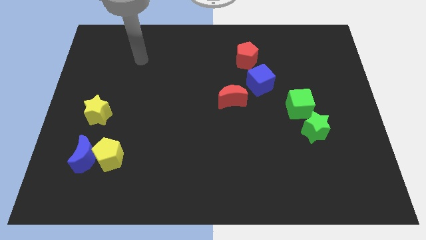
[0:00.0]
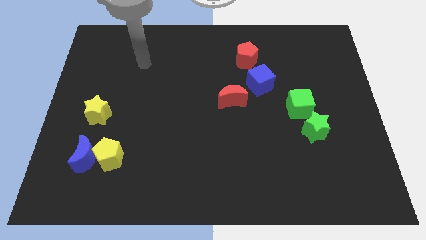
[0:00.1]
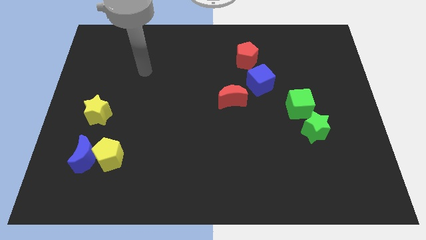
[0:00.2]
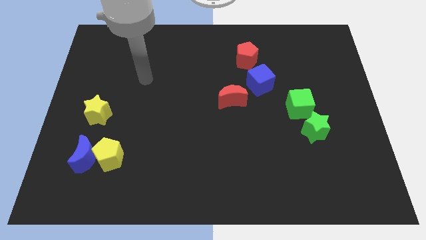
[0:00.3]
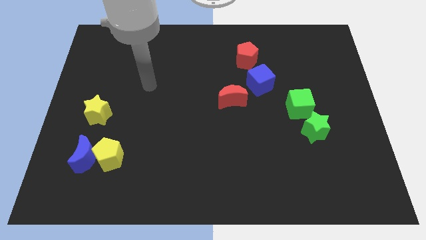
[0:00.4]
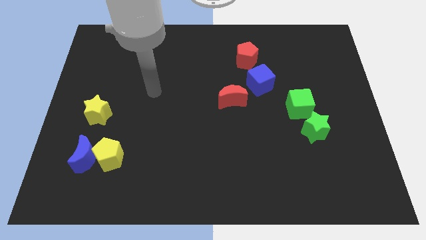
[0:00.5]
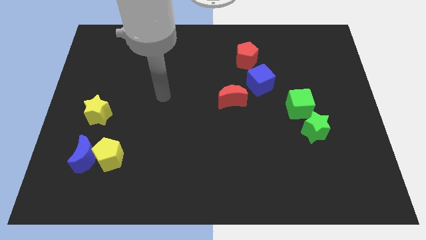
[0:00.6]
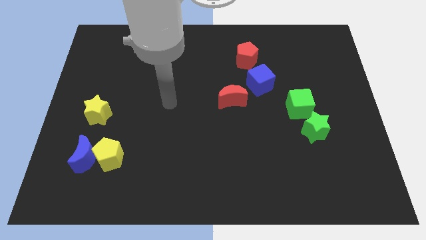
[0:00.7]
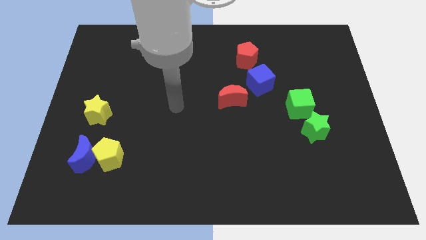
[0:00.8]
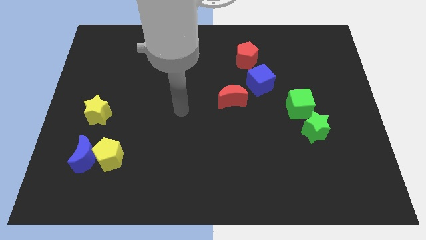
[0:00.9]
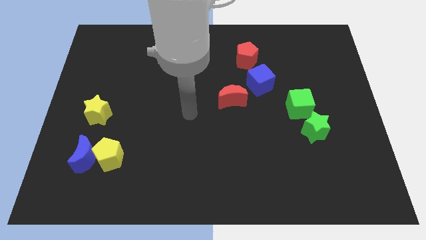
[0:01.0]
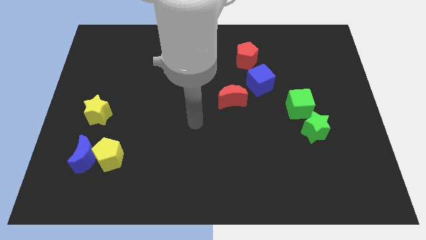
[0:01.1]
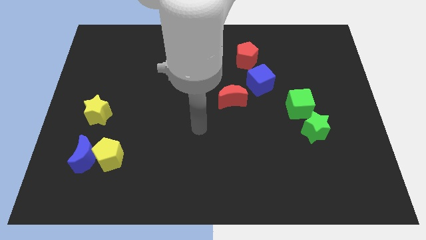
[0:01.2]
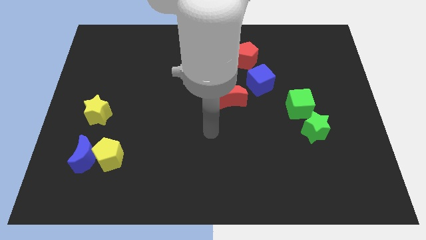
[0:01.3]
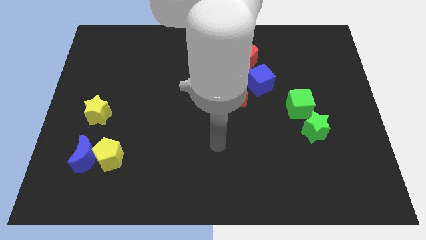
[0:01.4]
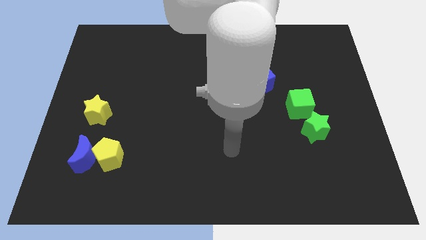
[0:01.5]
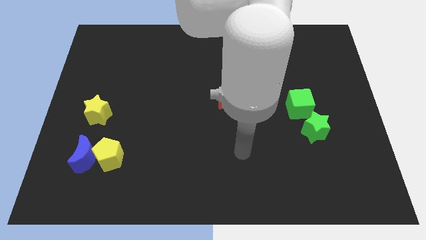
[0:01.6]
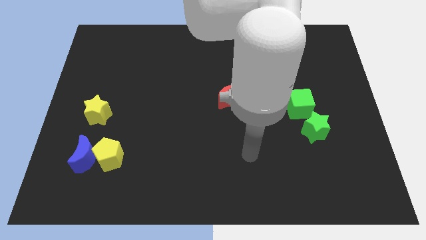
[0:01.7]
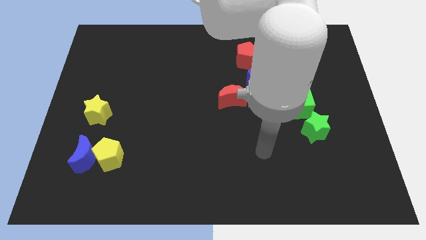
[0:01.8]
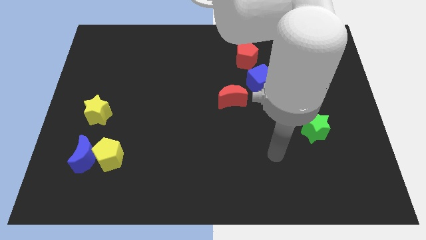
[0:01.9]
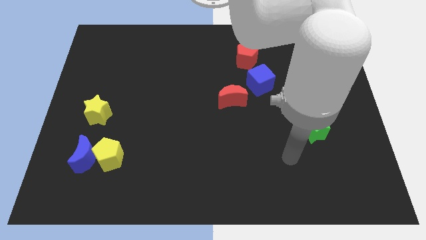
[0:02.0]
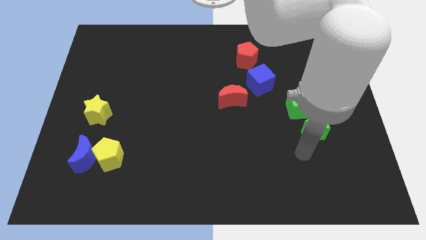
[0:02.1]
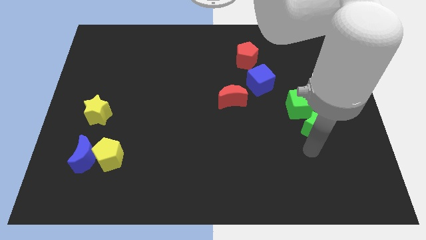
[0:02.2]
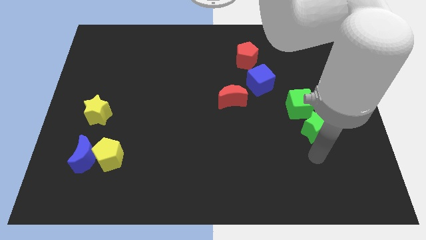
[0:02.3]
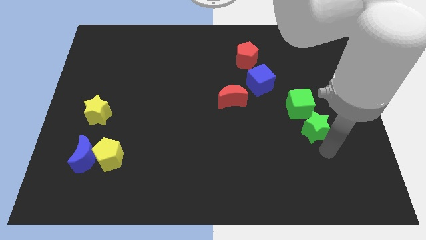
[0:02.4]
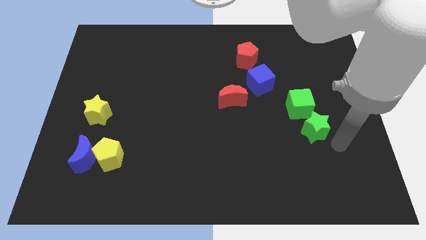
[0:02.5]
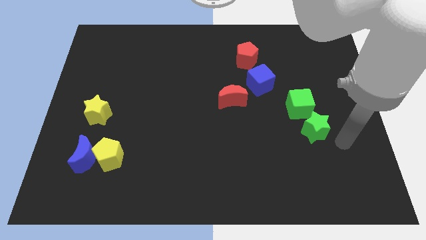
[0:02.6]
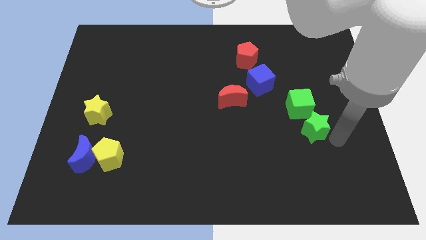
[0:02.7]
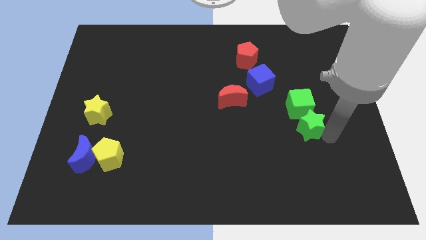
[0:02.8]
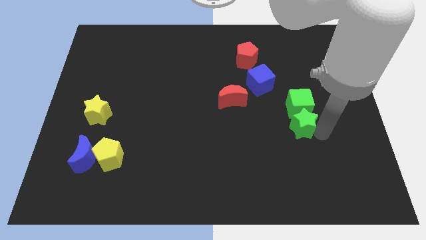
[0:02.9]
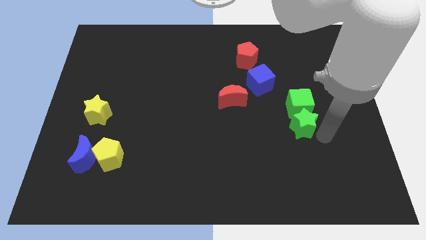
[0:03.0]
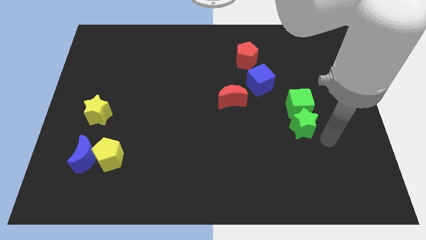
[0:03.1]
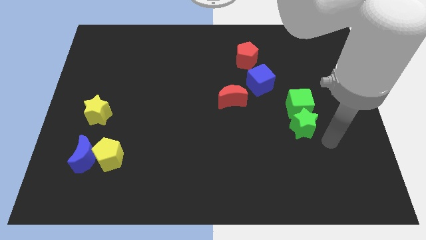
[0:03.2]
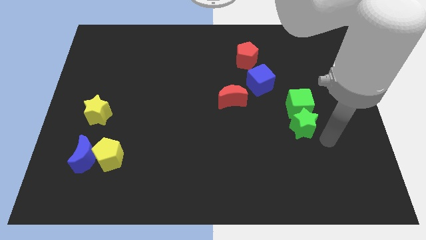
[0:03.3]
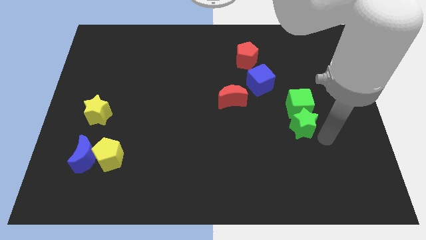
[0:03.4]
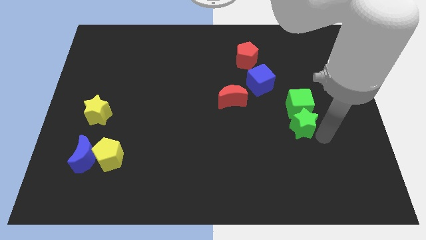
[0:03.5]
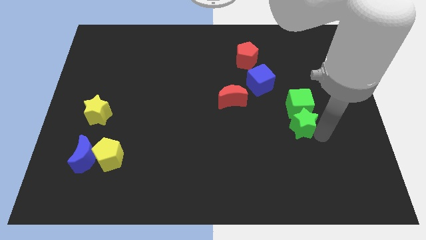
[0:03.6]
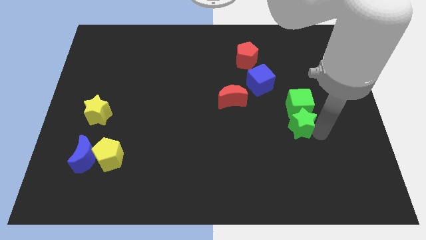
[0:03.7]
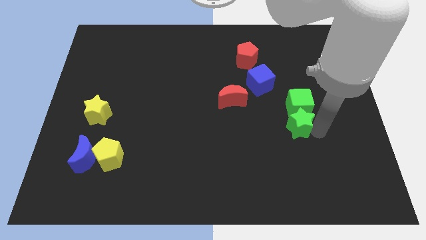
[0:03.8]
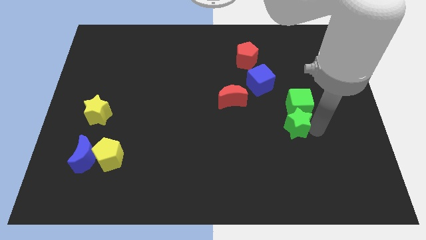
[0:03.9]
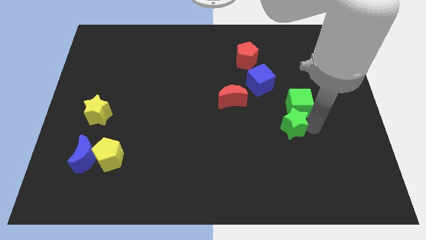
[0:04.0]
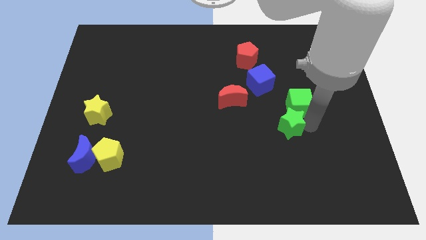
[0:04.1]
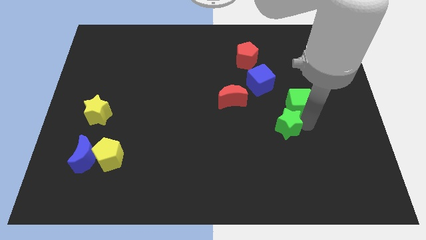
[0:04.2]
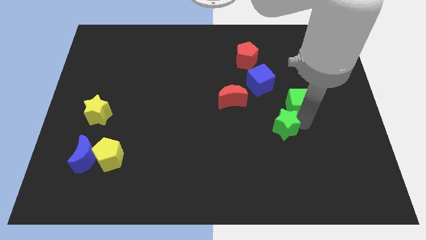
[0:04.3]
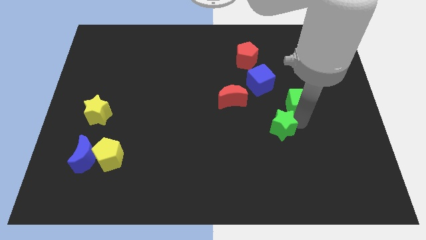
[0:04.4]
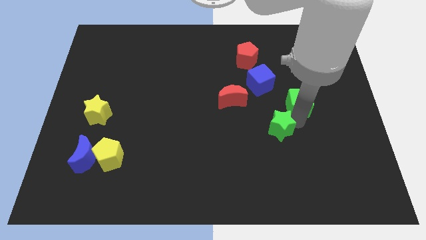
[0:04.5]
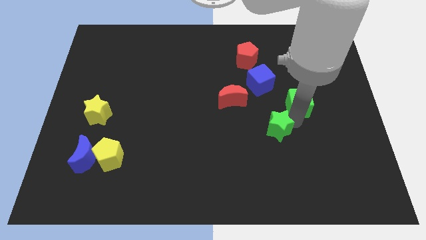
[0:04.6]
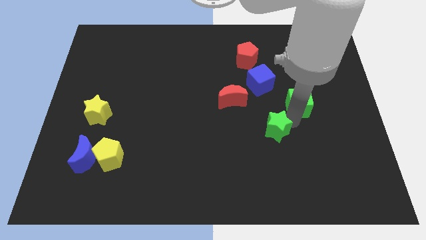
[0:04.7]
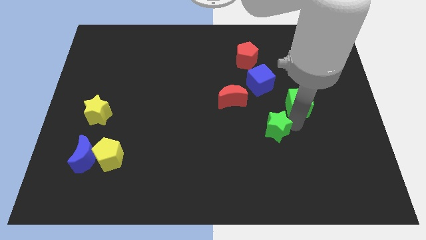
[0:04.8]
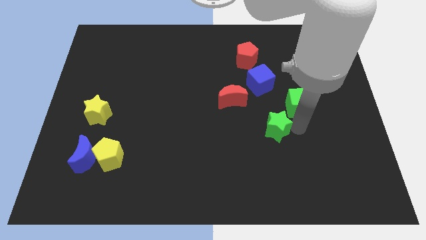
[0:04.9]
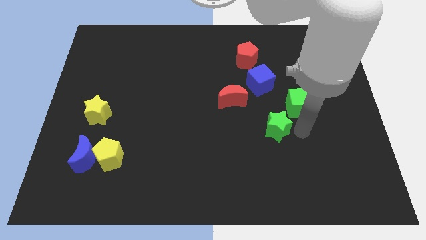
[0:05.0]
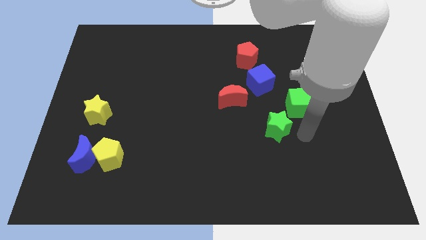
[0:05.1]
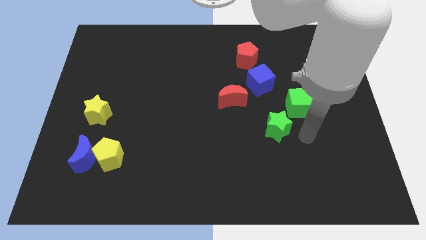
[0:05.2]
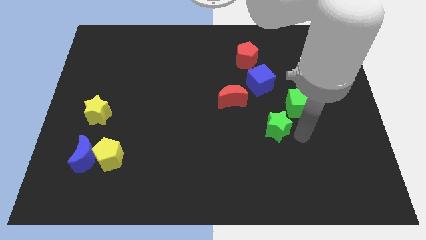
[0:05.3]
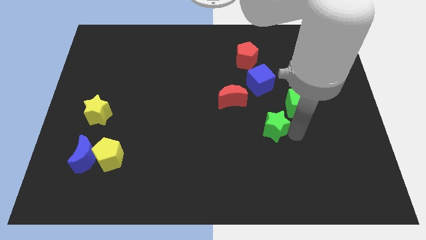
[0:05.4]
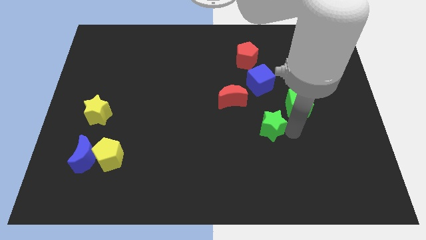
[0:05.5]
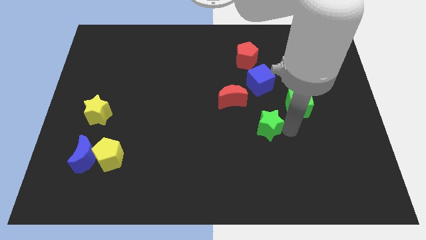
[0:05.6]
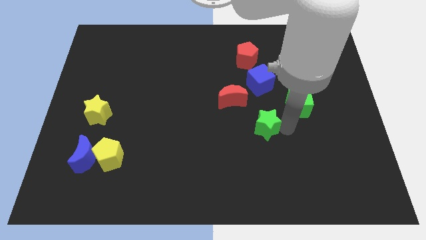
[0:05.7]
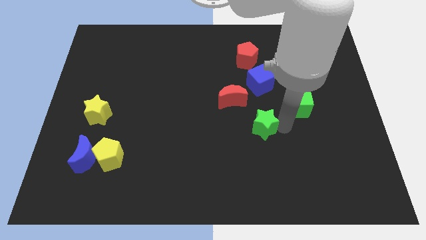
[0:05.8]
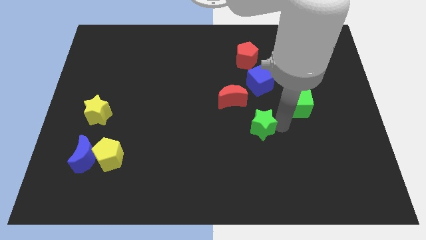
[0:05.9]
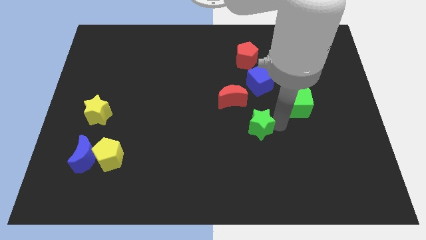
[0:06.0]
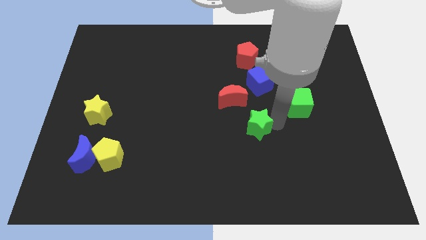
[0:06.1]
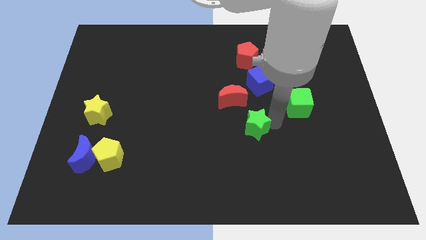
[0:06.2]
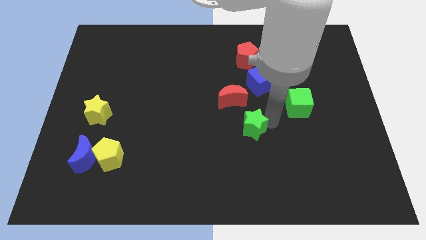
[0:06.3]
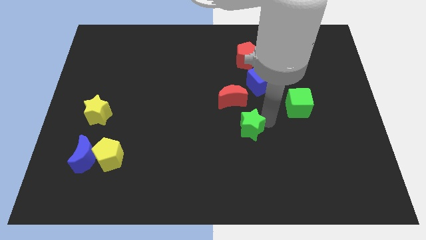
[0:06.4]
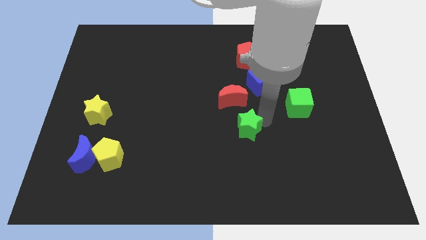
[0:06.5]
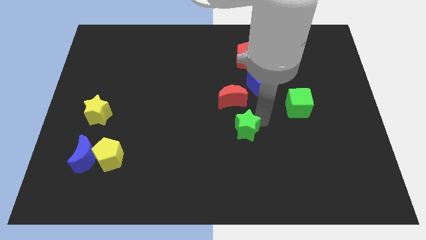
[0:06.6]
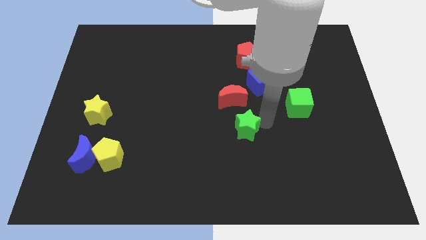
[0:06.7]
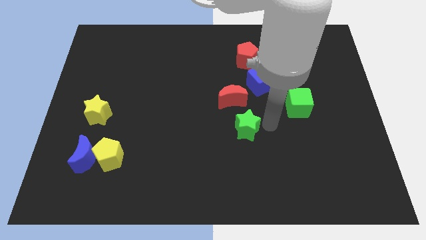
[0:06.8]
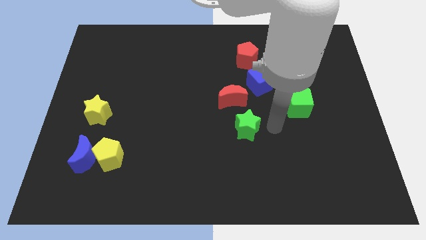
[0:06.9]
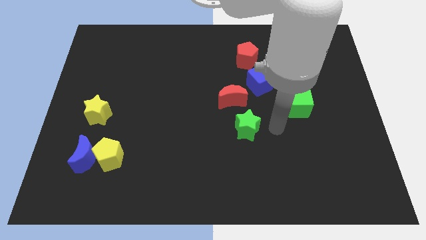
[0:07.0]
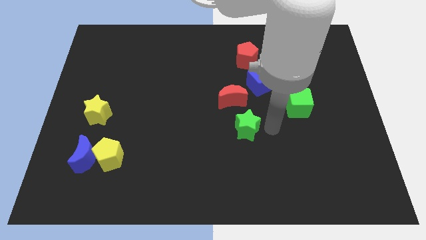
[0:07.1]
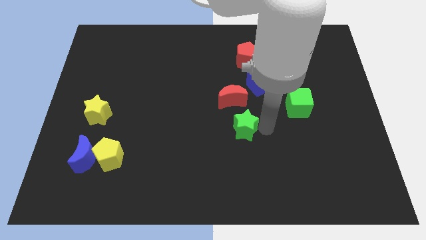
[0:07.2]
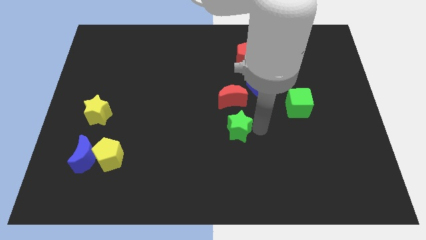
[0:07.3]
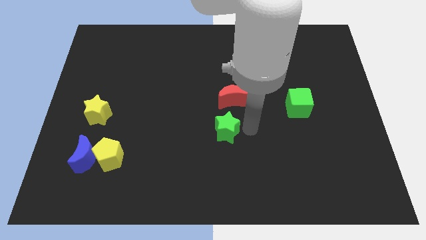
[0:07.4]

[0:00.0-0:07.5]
push the green star left

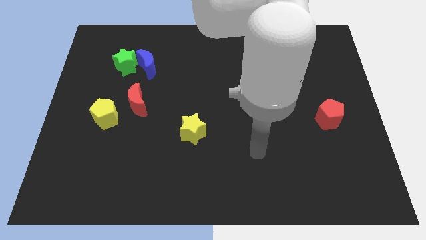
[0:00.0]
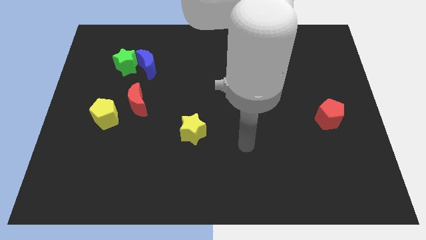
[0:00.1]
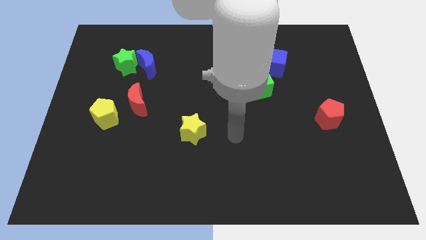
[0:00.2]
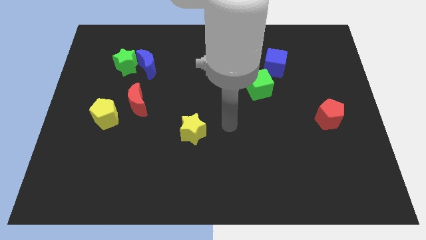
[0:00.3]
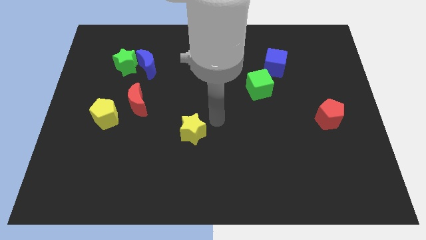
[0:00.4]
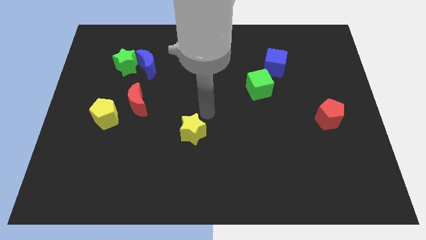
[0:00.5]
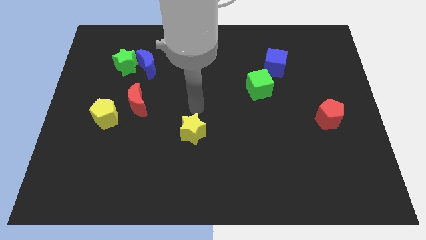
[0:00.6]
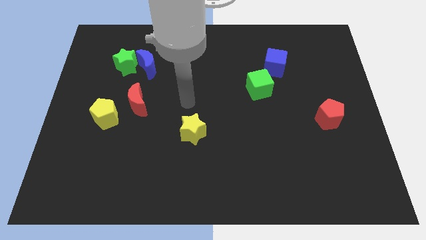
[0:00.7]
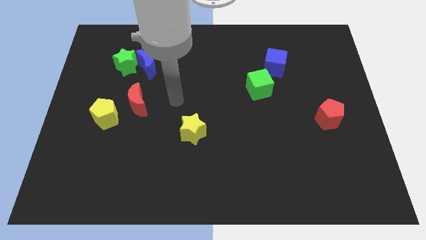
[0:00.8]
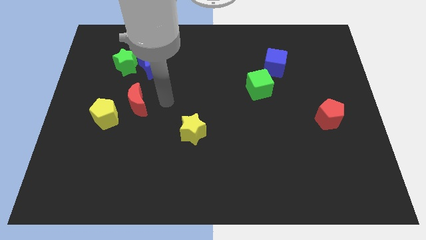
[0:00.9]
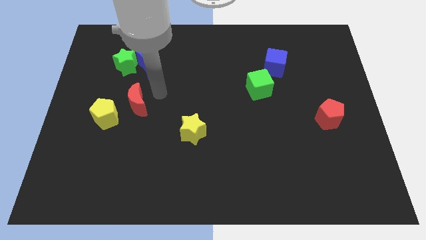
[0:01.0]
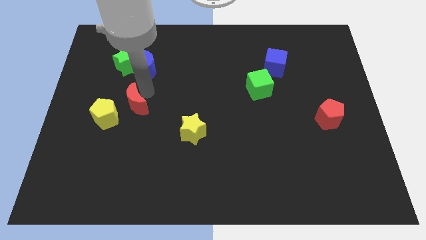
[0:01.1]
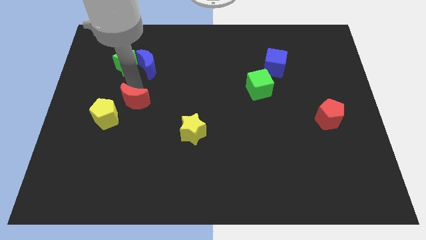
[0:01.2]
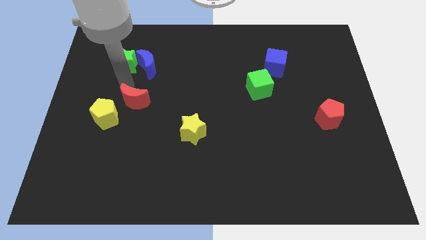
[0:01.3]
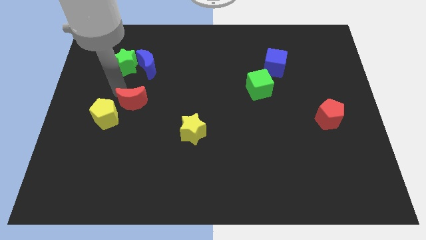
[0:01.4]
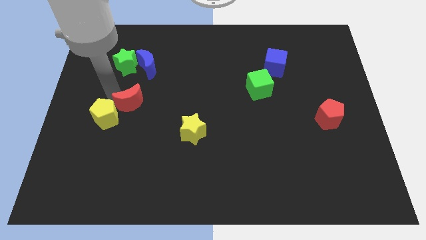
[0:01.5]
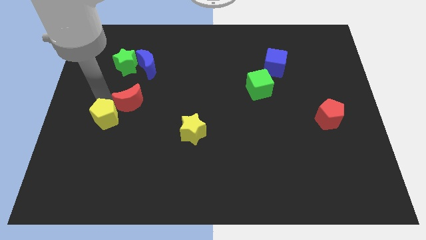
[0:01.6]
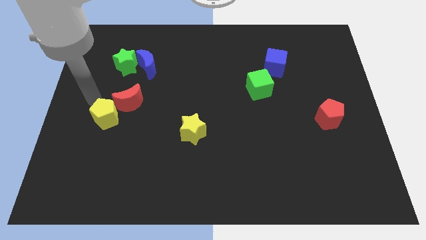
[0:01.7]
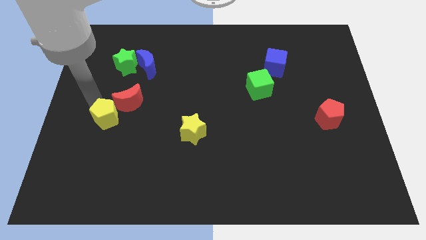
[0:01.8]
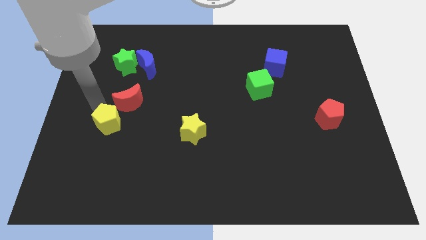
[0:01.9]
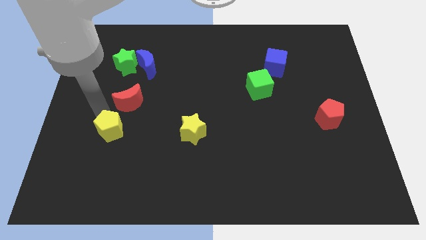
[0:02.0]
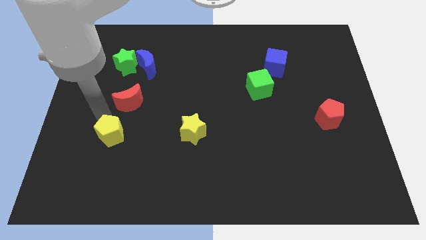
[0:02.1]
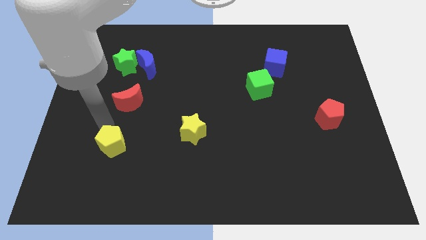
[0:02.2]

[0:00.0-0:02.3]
slightly slide the yellow pentagon diagonally down and right
